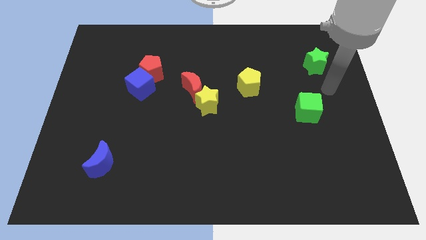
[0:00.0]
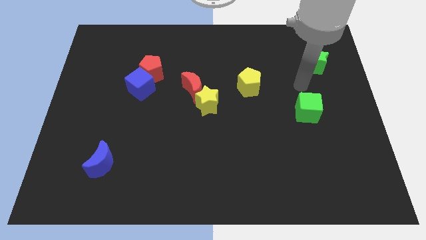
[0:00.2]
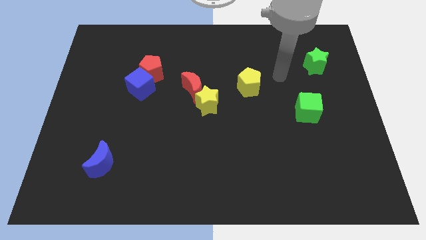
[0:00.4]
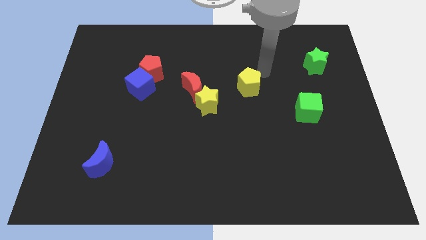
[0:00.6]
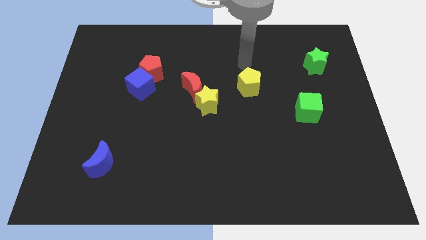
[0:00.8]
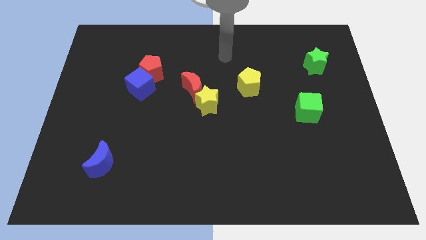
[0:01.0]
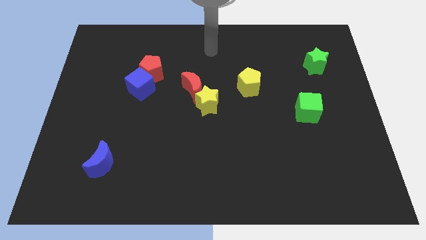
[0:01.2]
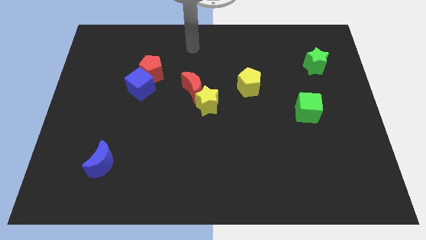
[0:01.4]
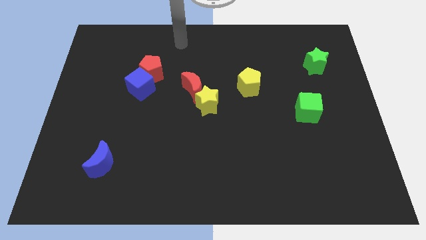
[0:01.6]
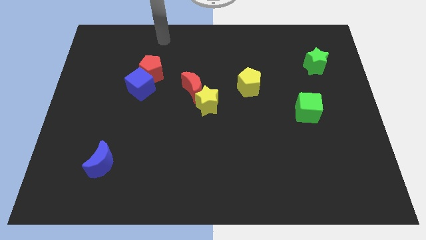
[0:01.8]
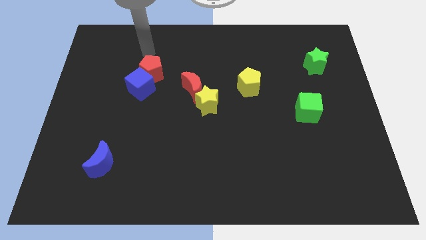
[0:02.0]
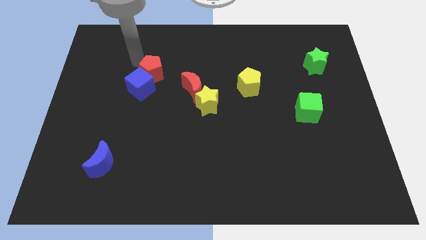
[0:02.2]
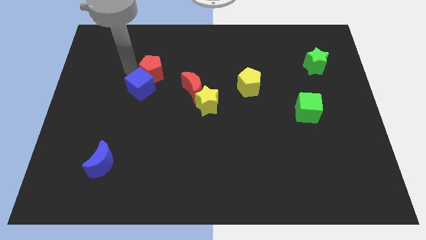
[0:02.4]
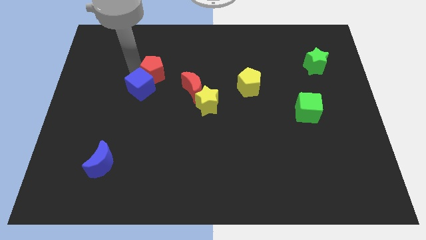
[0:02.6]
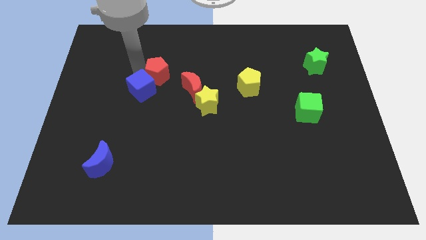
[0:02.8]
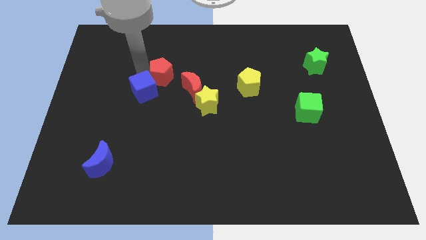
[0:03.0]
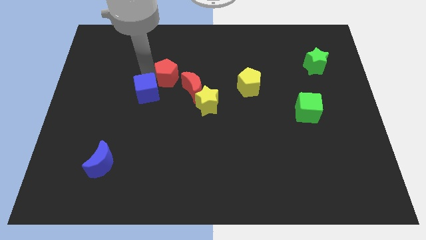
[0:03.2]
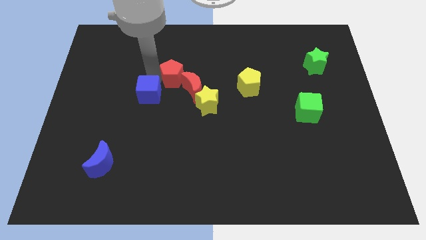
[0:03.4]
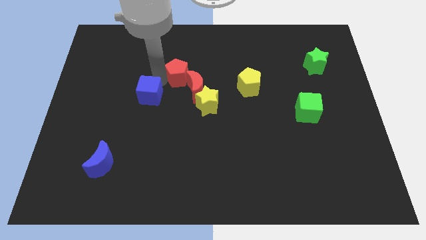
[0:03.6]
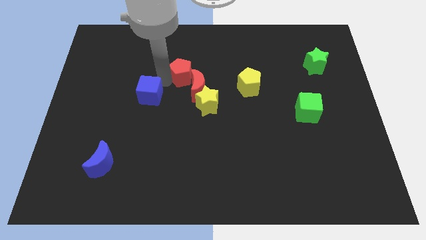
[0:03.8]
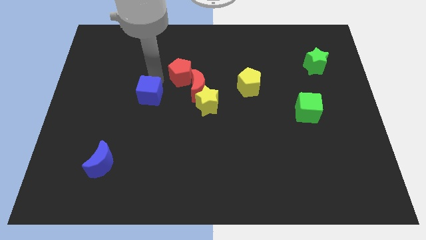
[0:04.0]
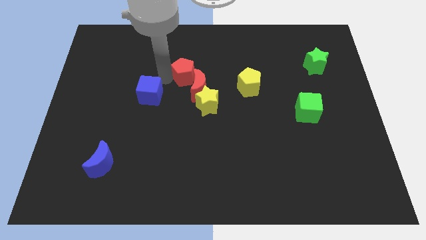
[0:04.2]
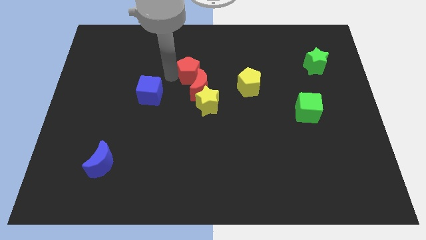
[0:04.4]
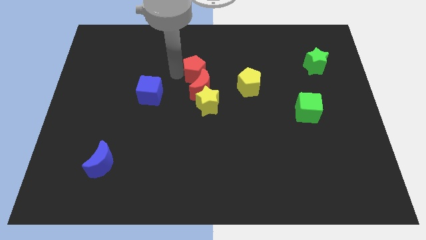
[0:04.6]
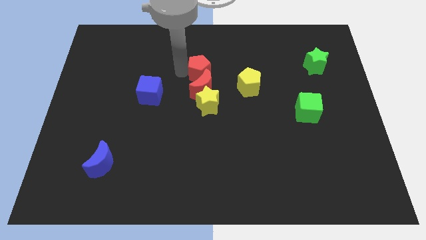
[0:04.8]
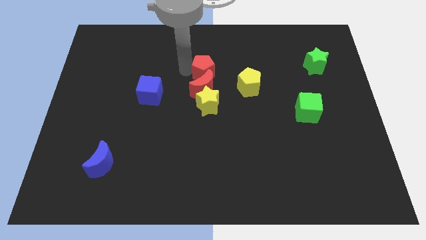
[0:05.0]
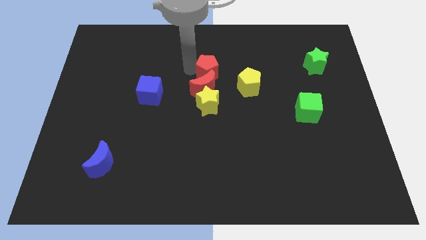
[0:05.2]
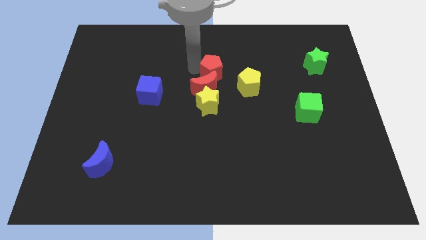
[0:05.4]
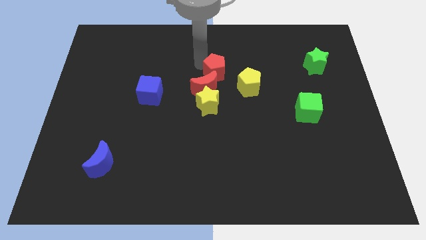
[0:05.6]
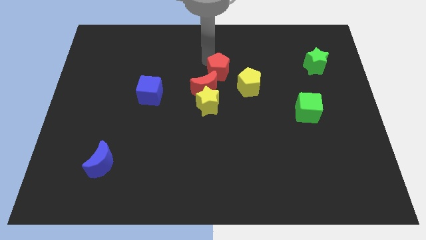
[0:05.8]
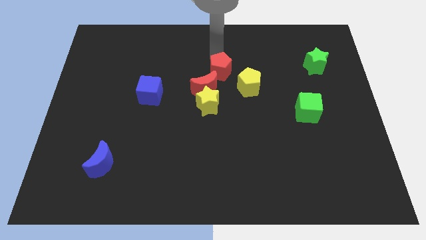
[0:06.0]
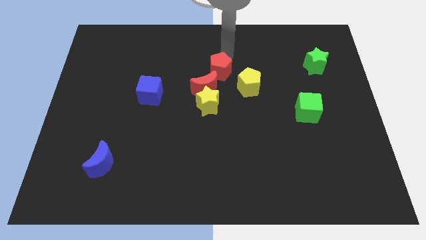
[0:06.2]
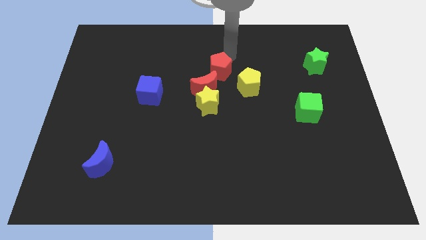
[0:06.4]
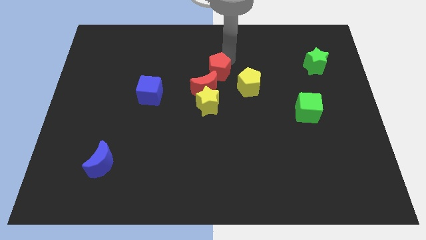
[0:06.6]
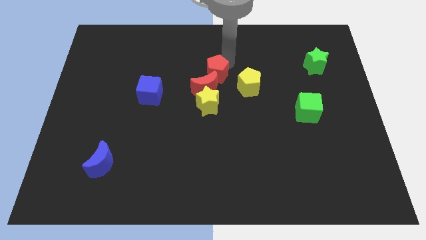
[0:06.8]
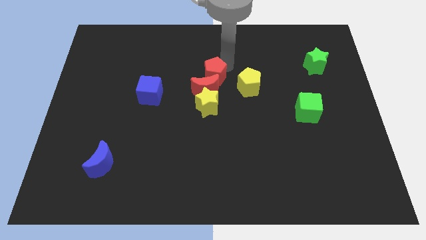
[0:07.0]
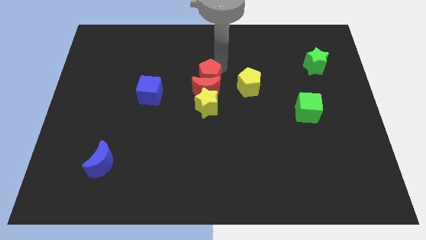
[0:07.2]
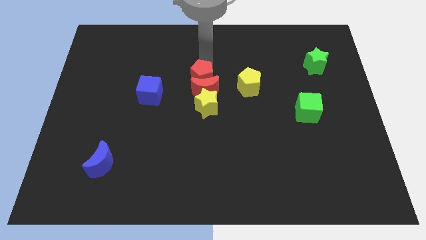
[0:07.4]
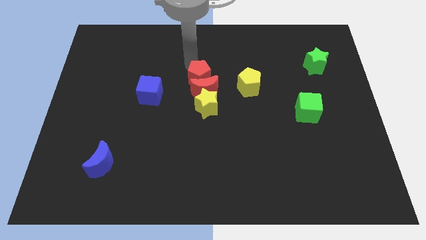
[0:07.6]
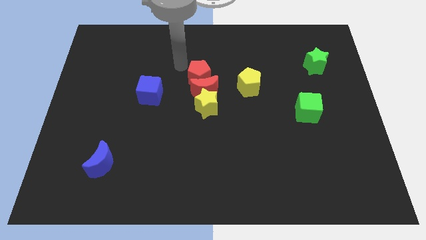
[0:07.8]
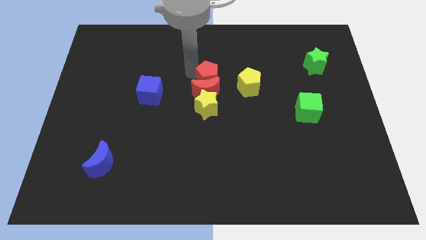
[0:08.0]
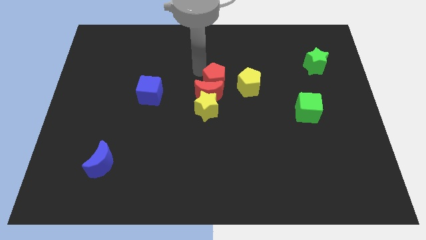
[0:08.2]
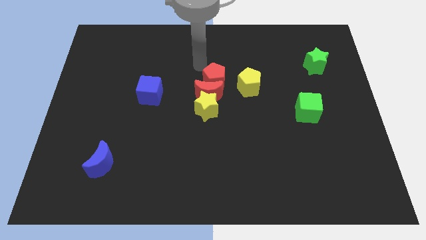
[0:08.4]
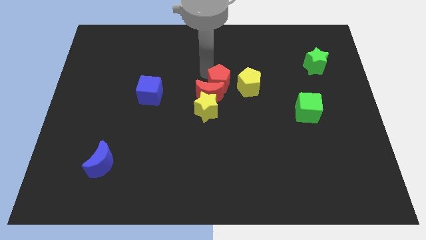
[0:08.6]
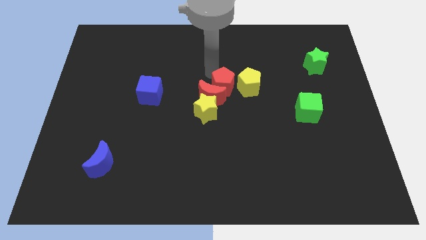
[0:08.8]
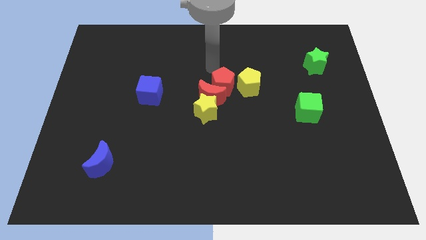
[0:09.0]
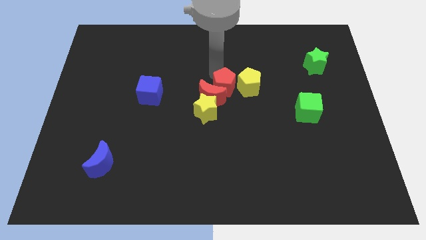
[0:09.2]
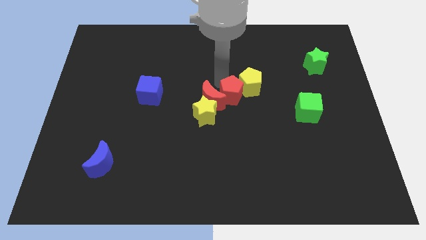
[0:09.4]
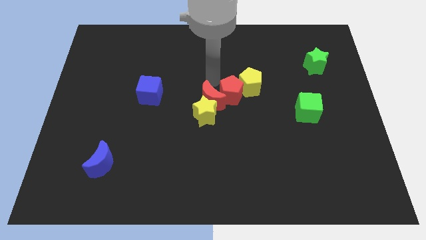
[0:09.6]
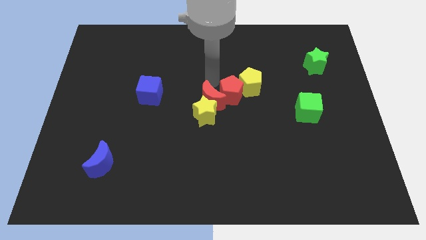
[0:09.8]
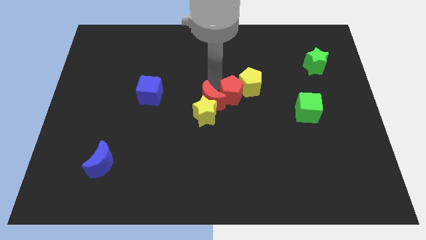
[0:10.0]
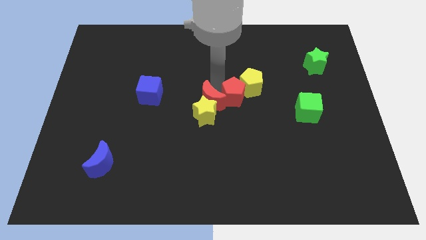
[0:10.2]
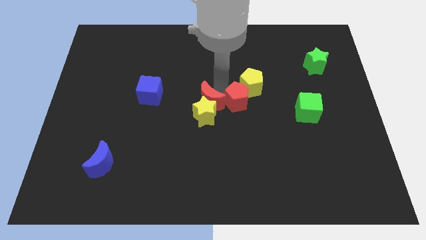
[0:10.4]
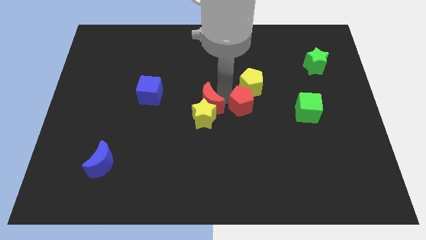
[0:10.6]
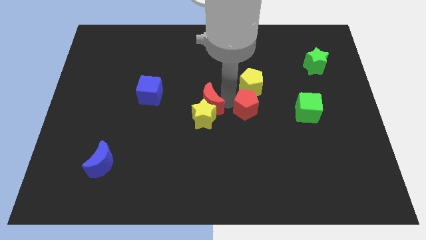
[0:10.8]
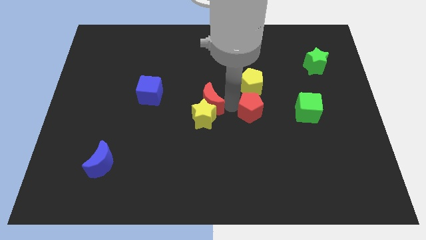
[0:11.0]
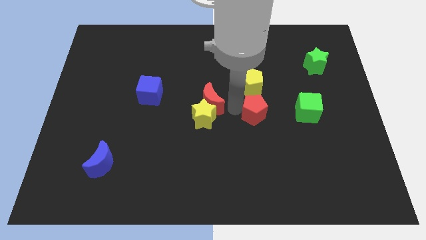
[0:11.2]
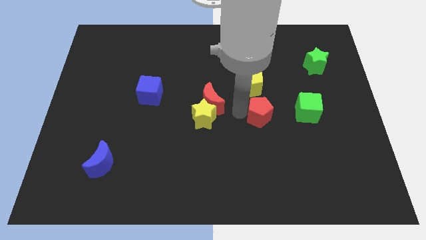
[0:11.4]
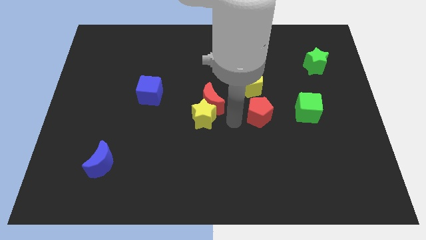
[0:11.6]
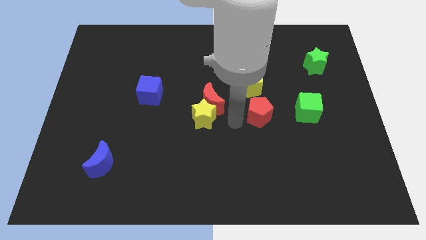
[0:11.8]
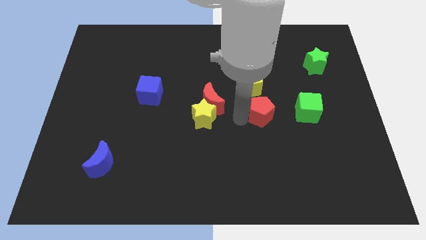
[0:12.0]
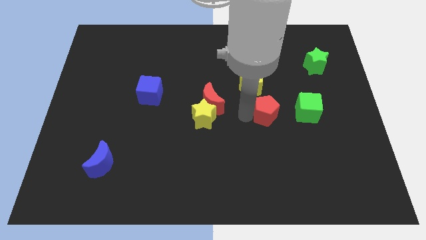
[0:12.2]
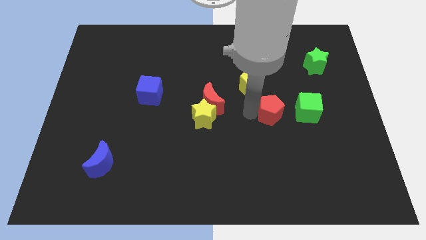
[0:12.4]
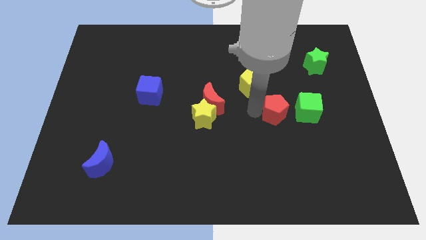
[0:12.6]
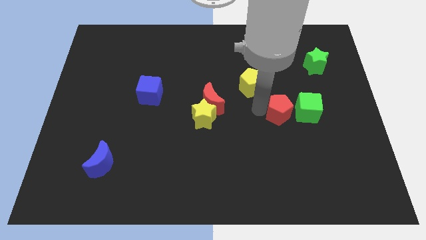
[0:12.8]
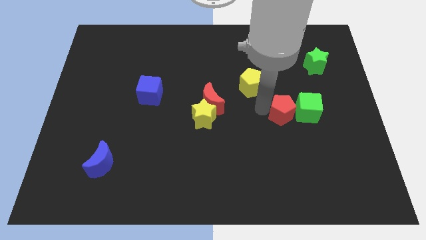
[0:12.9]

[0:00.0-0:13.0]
slide the red pentagon towards the green cube

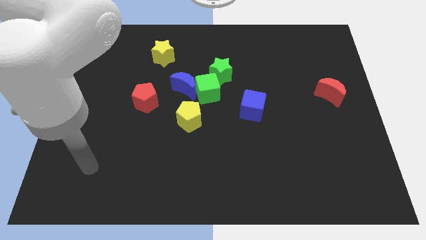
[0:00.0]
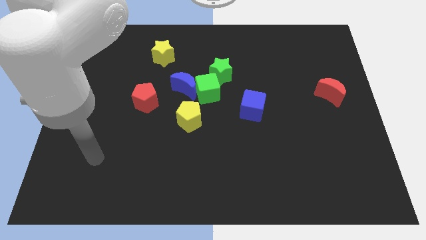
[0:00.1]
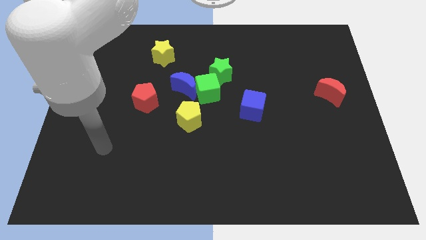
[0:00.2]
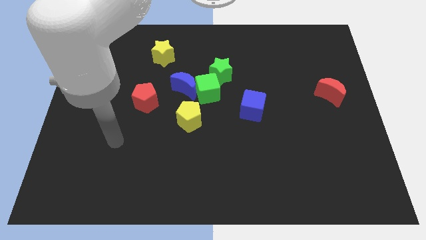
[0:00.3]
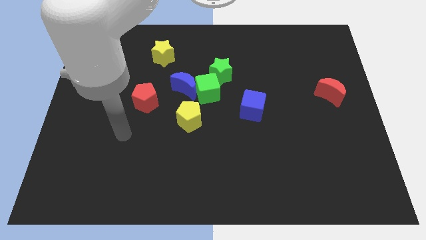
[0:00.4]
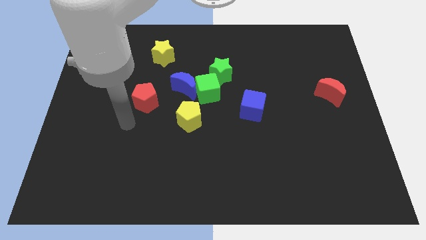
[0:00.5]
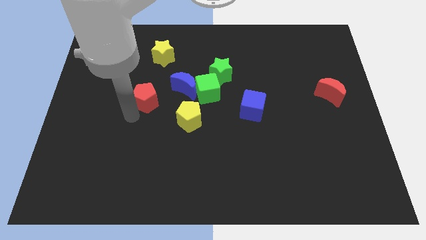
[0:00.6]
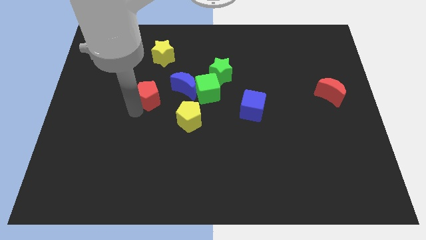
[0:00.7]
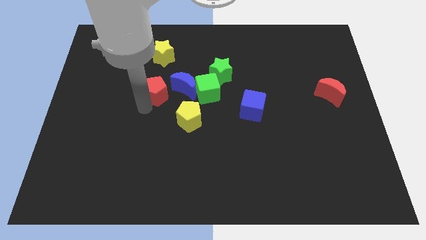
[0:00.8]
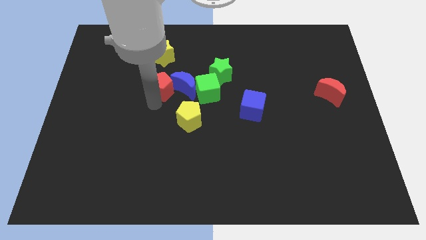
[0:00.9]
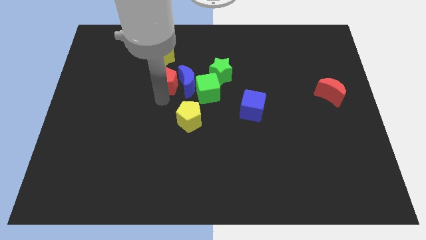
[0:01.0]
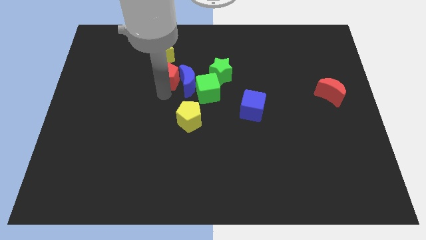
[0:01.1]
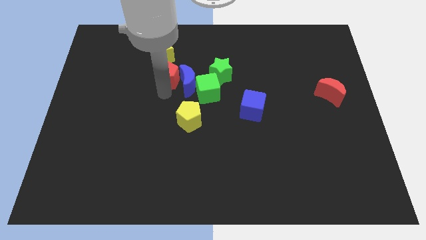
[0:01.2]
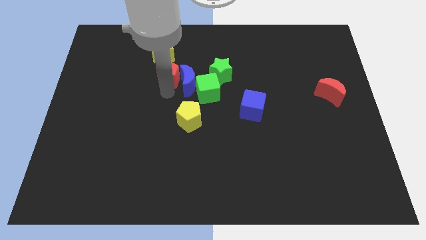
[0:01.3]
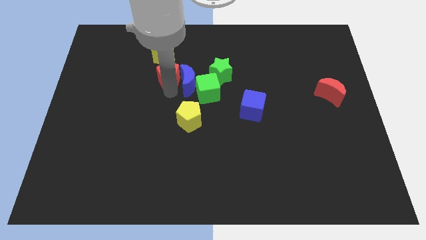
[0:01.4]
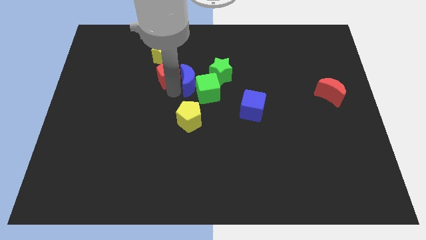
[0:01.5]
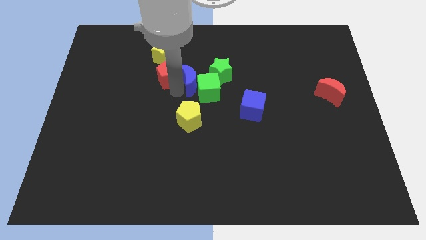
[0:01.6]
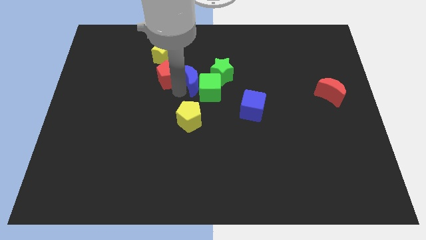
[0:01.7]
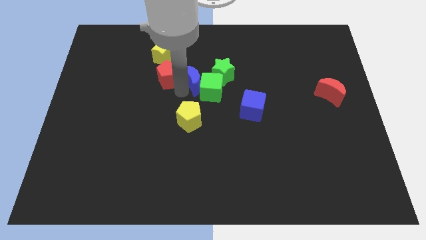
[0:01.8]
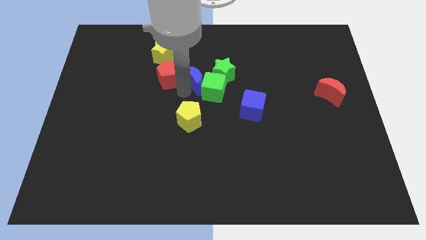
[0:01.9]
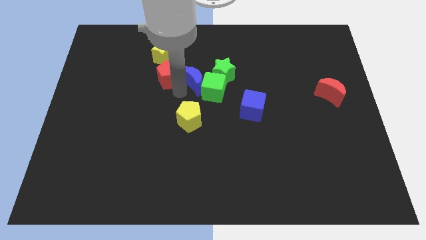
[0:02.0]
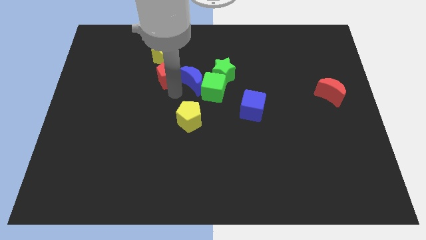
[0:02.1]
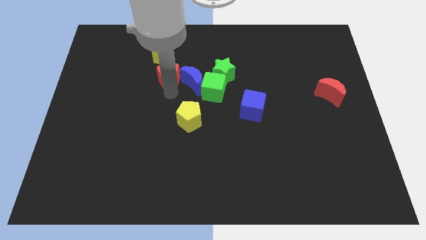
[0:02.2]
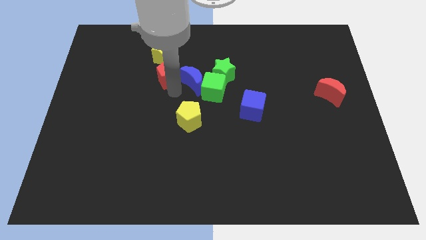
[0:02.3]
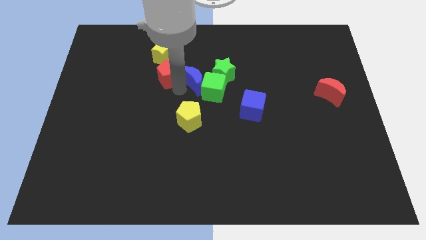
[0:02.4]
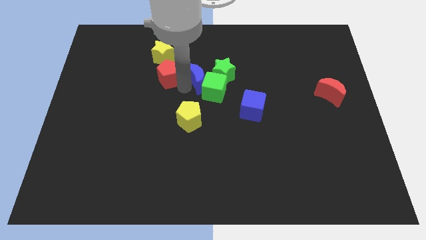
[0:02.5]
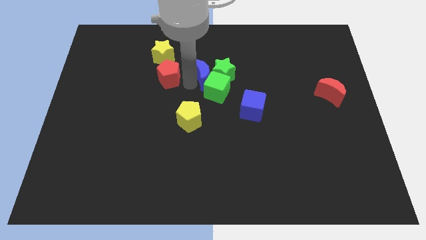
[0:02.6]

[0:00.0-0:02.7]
push the blue moon to the green star
